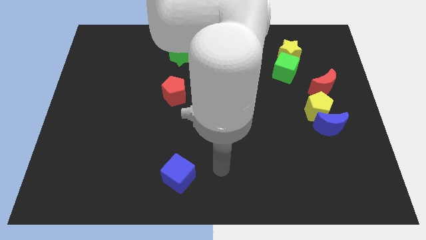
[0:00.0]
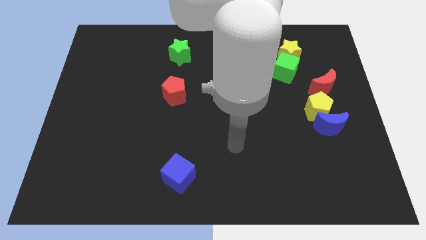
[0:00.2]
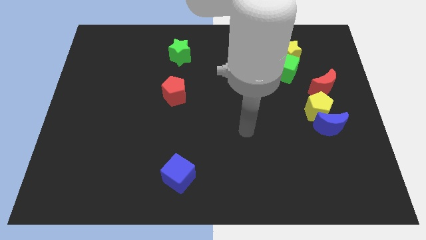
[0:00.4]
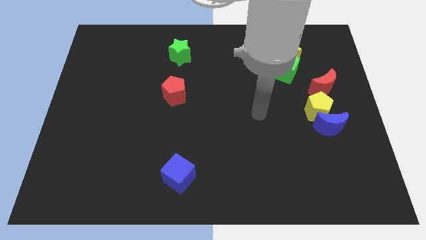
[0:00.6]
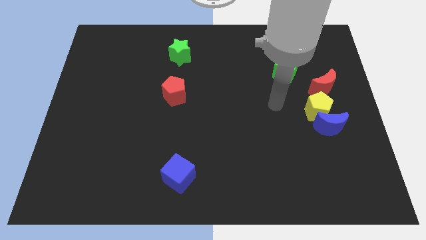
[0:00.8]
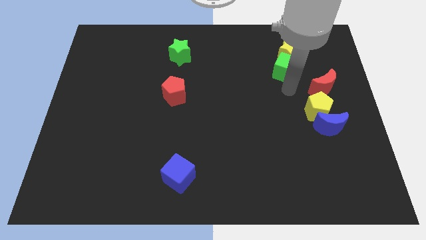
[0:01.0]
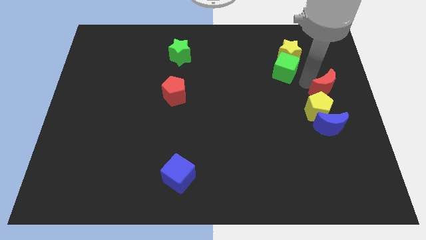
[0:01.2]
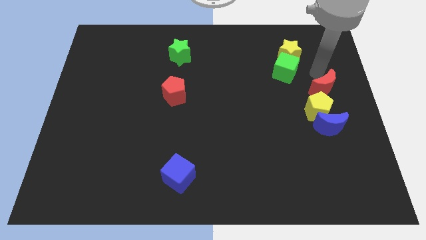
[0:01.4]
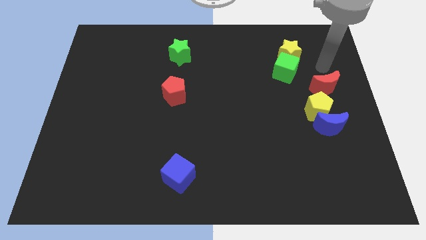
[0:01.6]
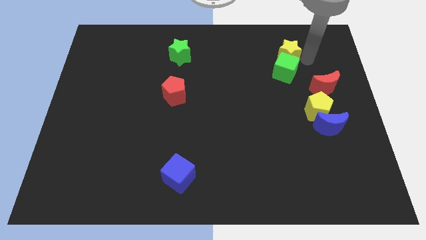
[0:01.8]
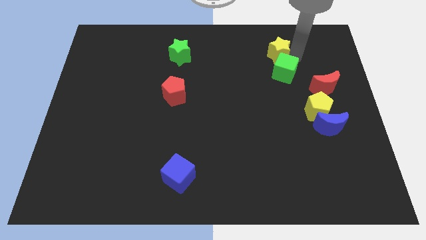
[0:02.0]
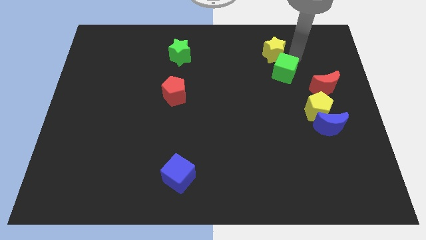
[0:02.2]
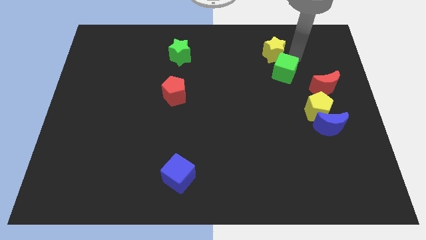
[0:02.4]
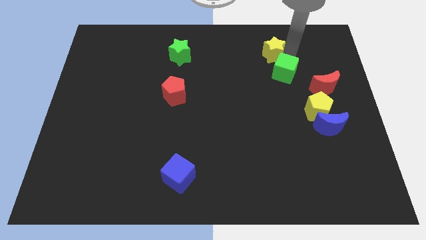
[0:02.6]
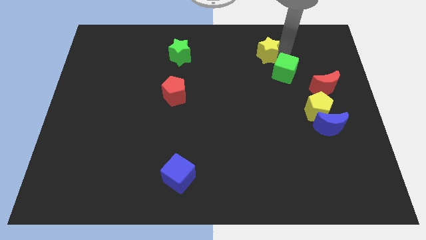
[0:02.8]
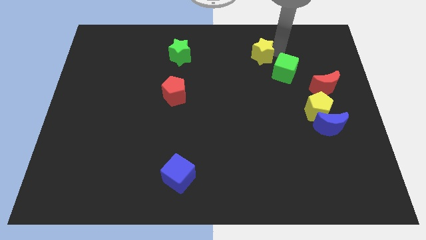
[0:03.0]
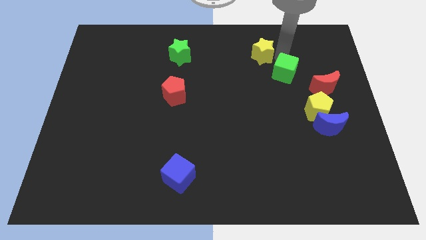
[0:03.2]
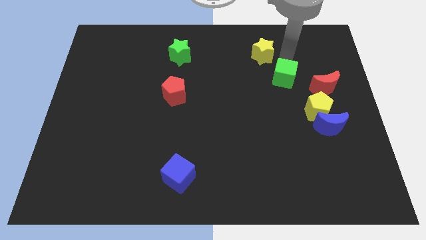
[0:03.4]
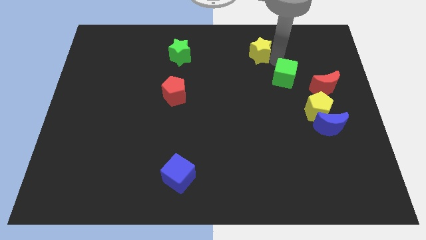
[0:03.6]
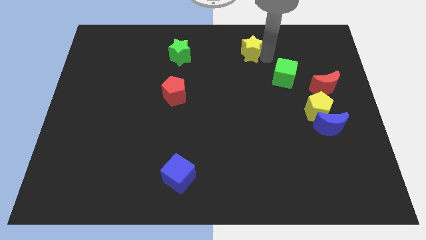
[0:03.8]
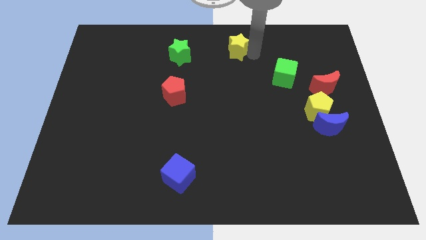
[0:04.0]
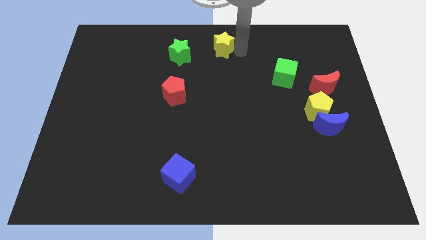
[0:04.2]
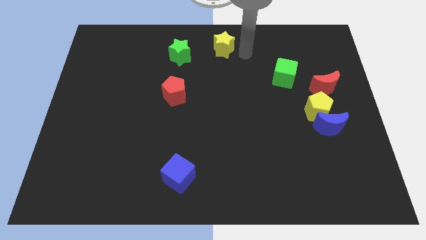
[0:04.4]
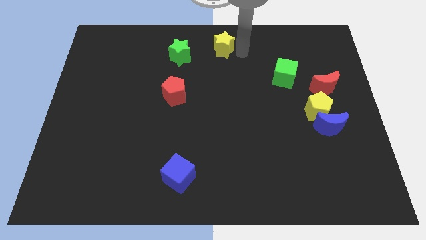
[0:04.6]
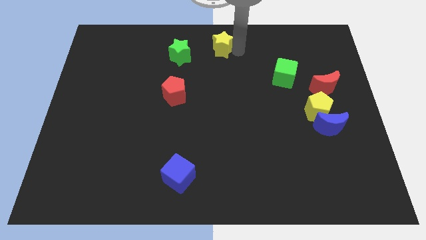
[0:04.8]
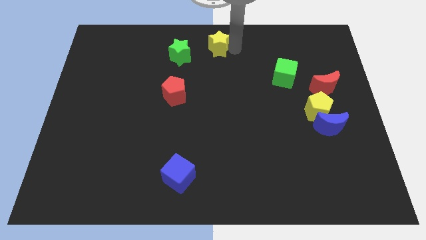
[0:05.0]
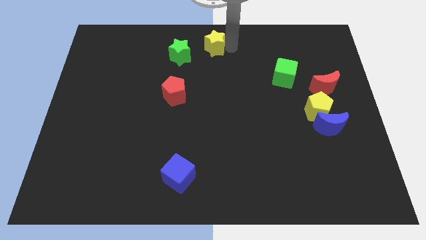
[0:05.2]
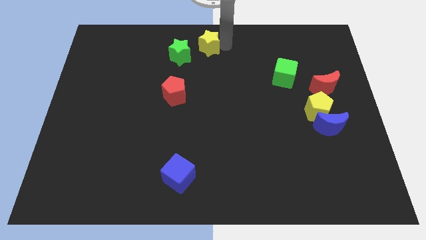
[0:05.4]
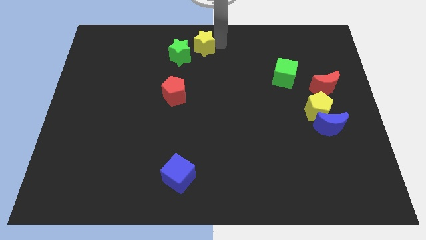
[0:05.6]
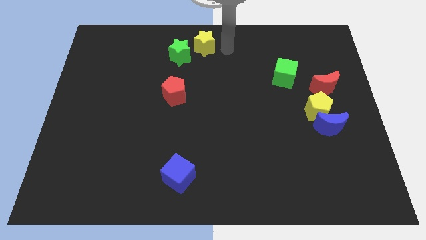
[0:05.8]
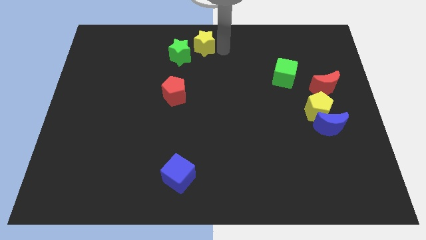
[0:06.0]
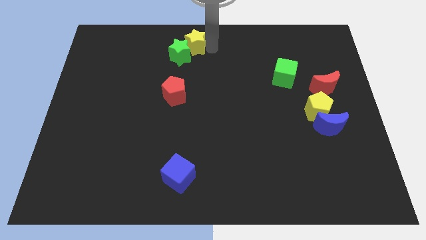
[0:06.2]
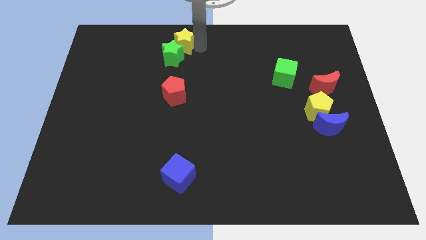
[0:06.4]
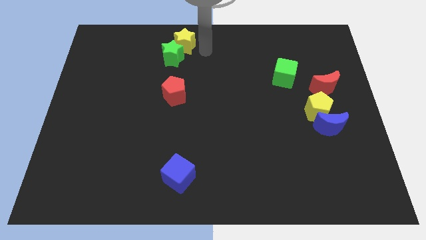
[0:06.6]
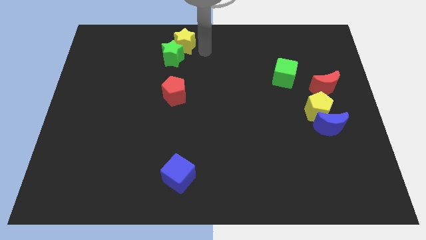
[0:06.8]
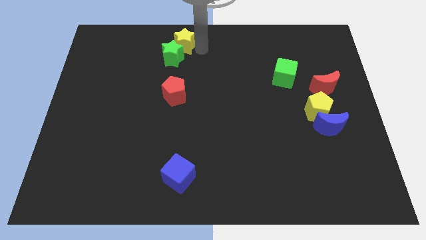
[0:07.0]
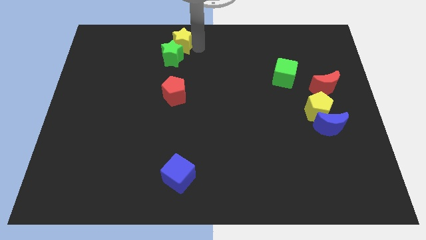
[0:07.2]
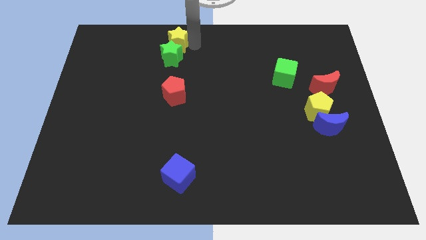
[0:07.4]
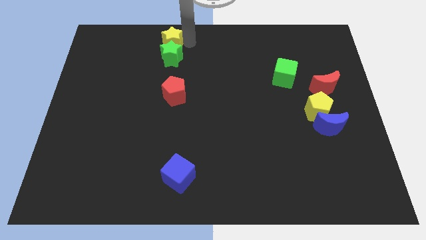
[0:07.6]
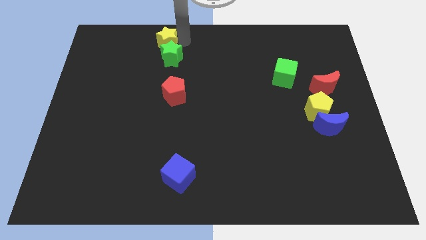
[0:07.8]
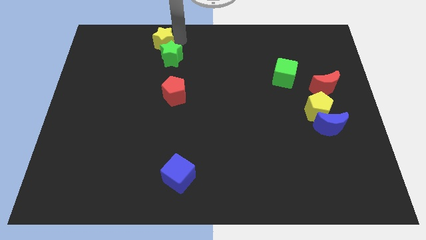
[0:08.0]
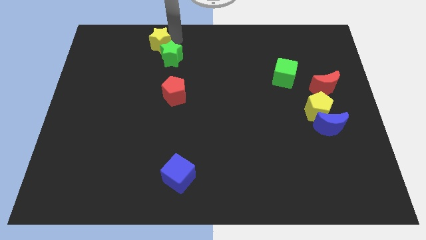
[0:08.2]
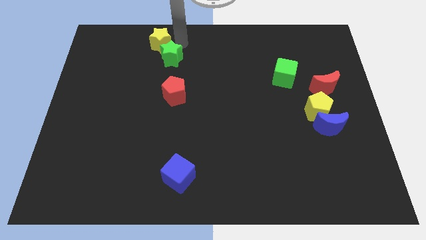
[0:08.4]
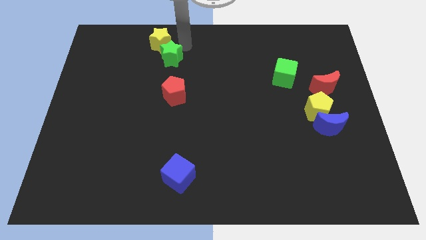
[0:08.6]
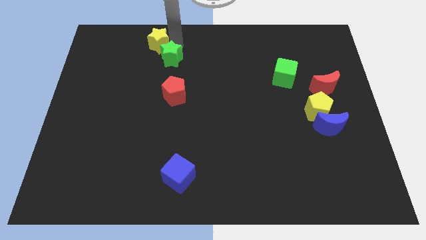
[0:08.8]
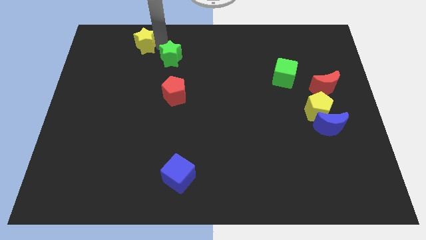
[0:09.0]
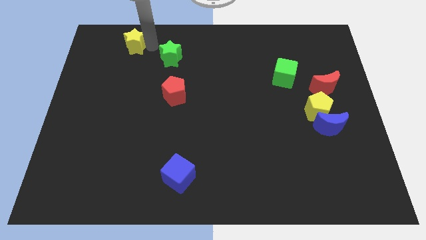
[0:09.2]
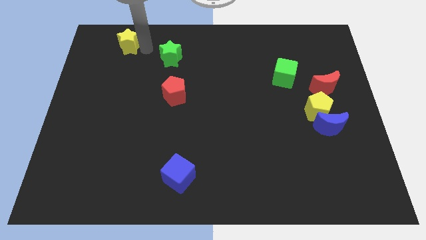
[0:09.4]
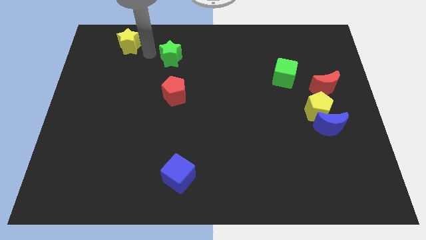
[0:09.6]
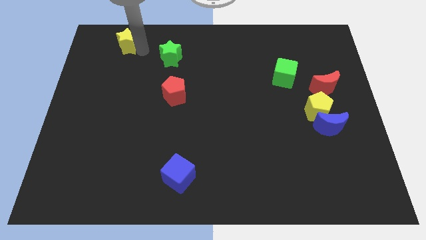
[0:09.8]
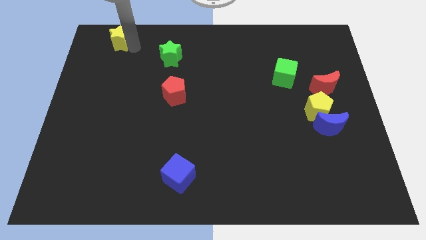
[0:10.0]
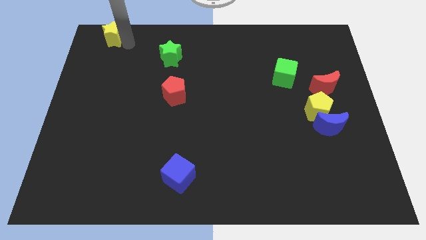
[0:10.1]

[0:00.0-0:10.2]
slide the yellow star to the top left corner

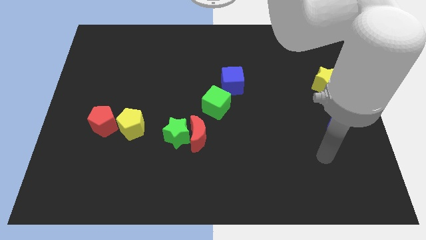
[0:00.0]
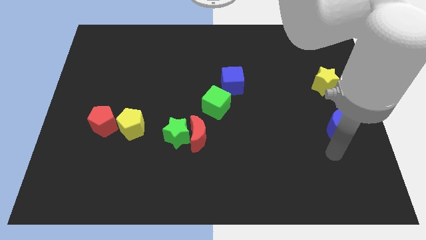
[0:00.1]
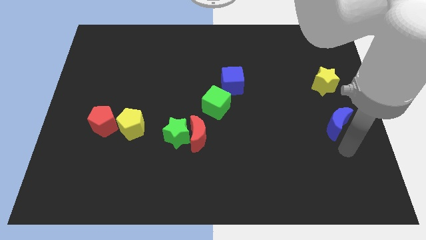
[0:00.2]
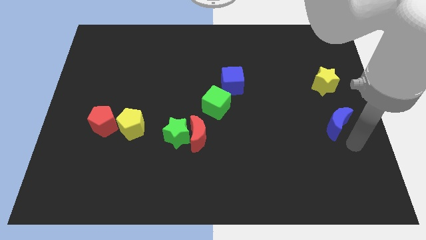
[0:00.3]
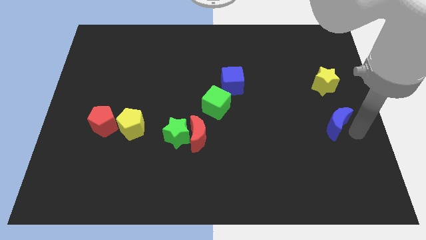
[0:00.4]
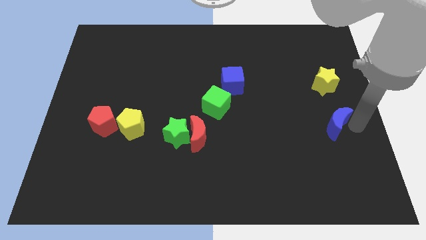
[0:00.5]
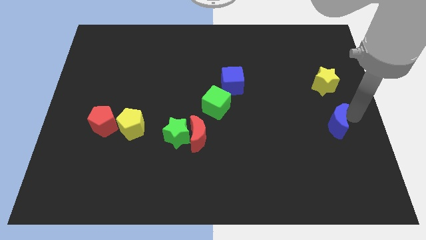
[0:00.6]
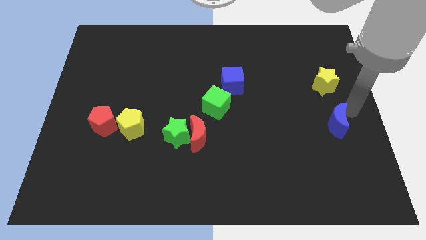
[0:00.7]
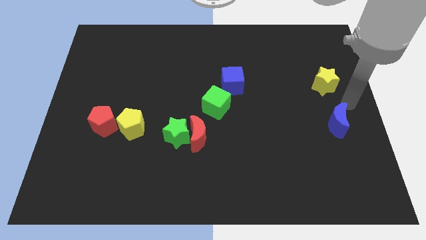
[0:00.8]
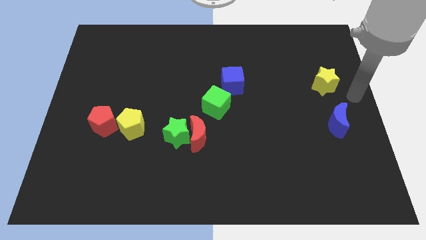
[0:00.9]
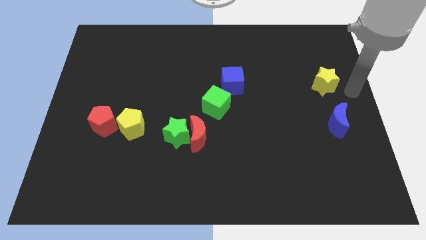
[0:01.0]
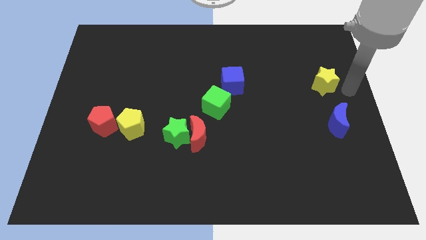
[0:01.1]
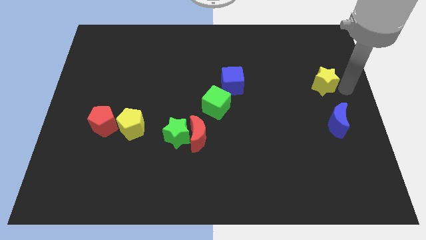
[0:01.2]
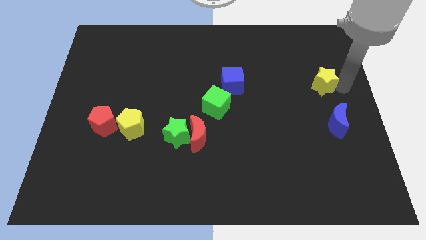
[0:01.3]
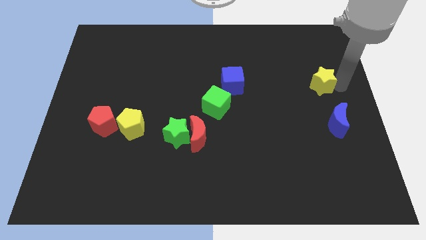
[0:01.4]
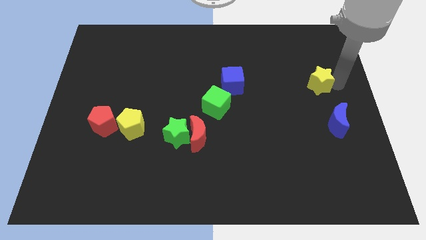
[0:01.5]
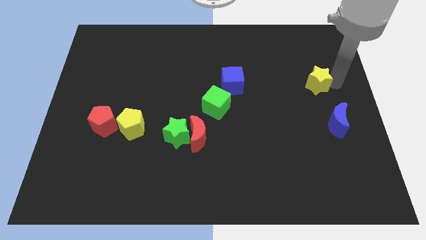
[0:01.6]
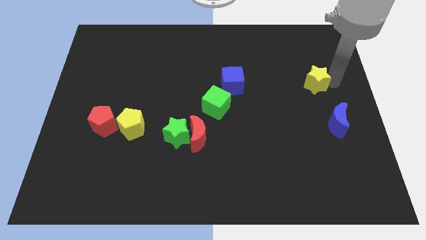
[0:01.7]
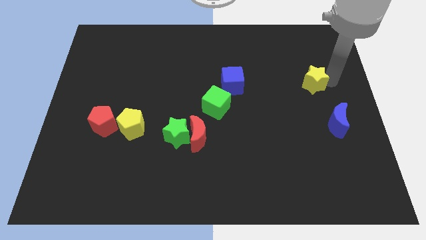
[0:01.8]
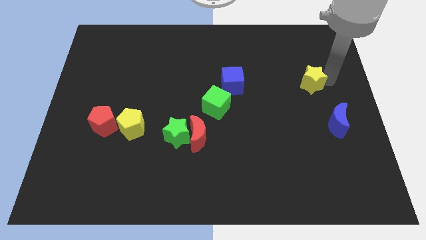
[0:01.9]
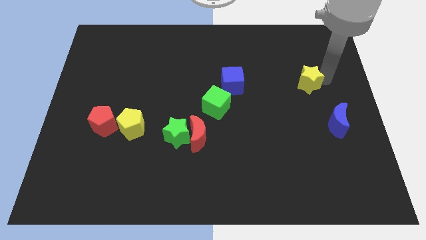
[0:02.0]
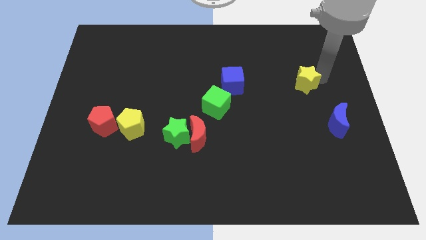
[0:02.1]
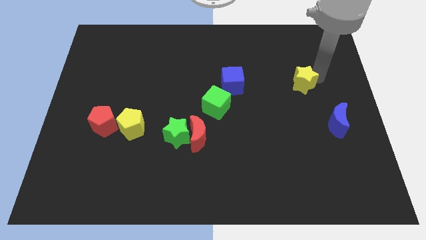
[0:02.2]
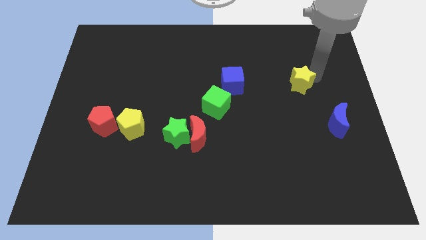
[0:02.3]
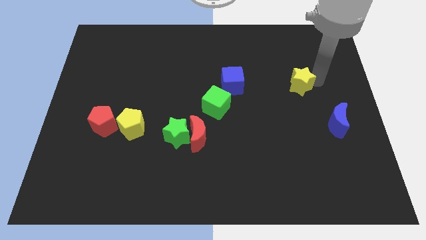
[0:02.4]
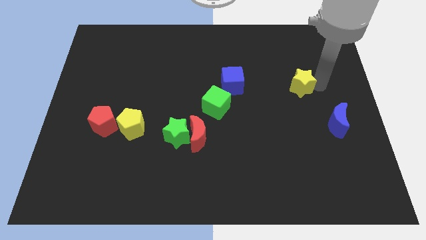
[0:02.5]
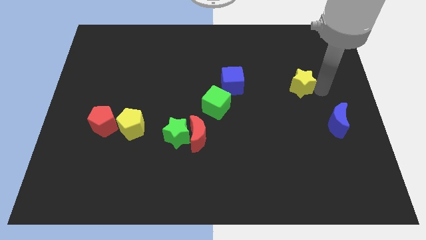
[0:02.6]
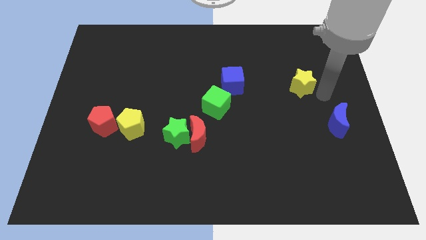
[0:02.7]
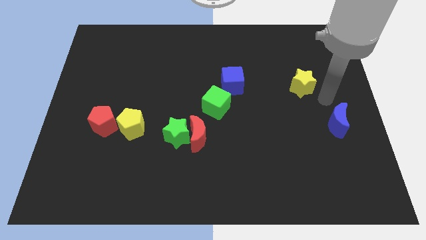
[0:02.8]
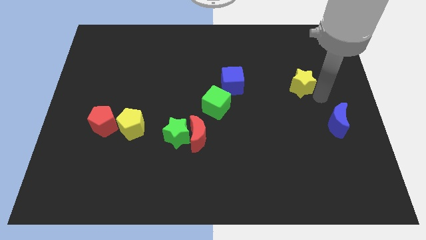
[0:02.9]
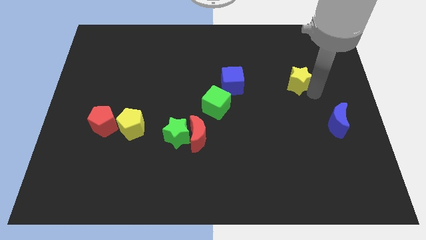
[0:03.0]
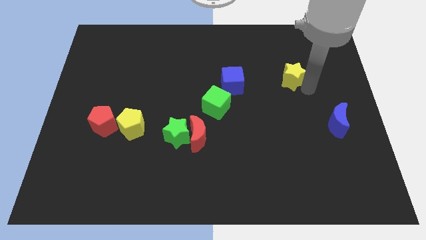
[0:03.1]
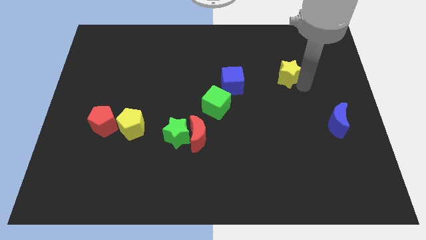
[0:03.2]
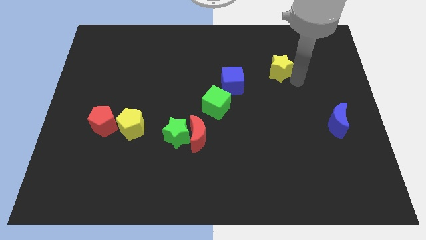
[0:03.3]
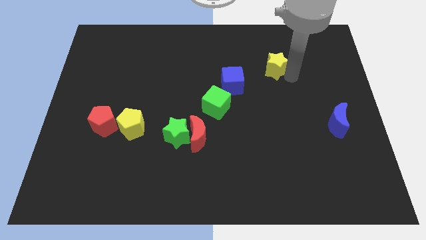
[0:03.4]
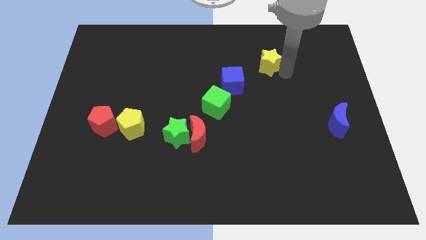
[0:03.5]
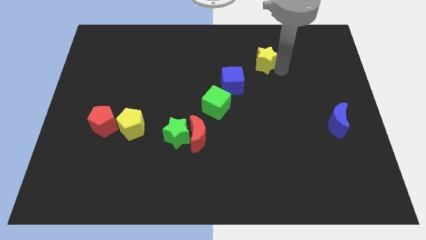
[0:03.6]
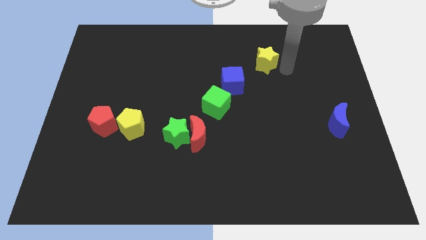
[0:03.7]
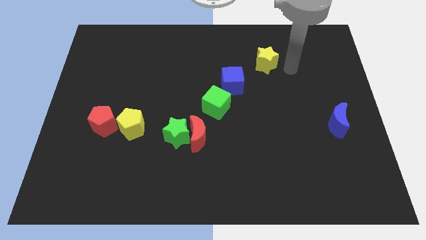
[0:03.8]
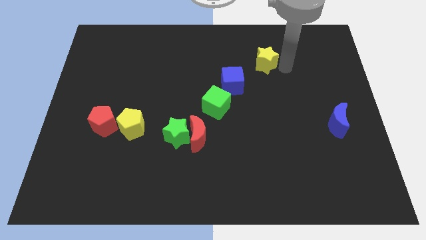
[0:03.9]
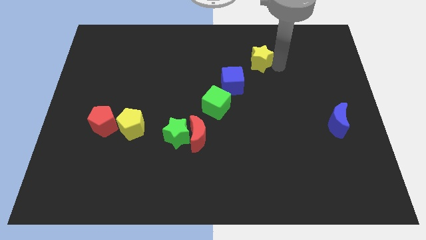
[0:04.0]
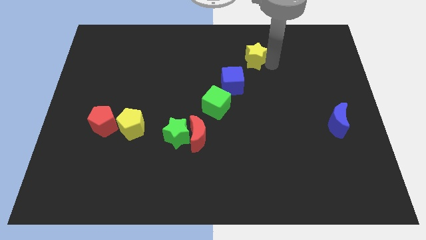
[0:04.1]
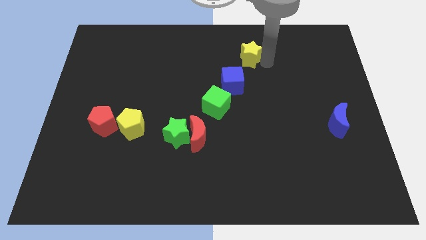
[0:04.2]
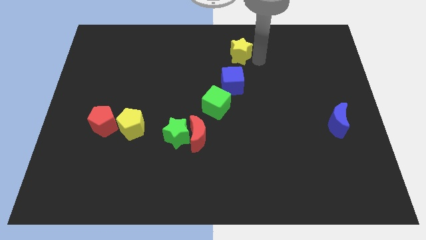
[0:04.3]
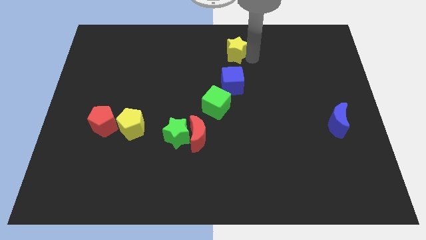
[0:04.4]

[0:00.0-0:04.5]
push the yellow star to the top
